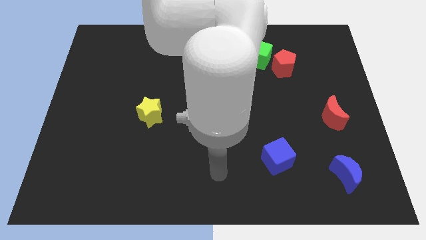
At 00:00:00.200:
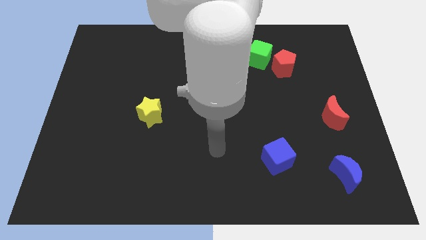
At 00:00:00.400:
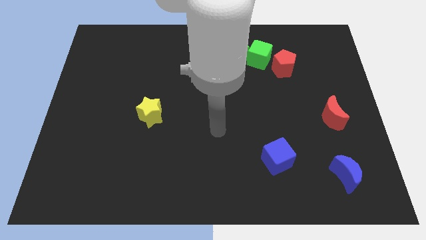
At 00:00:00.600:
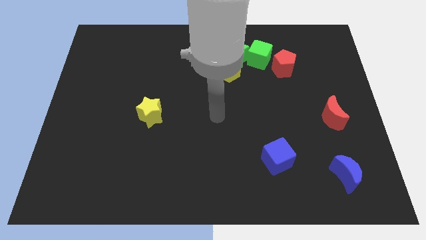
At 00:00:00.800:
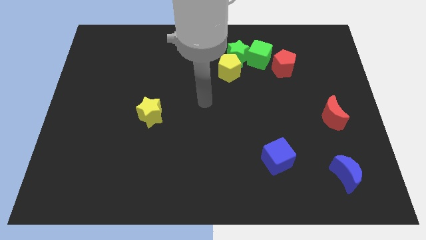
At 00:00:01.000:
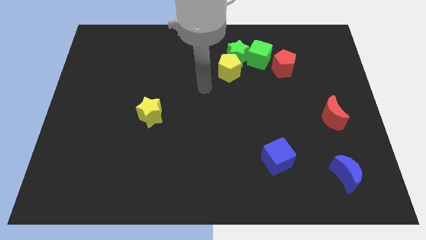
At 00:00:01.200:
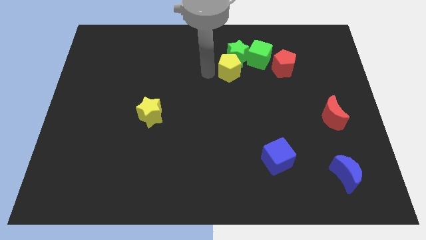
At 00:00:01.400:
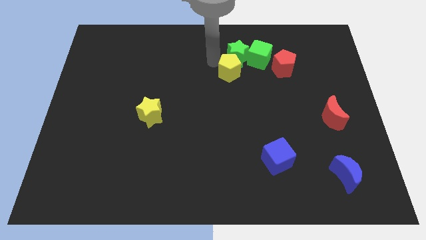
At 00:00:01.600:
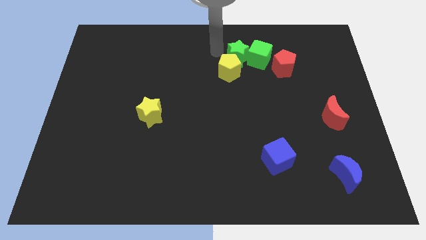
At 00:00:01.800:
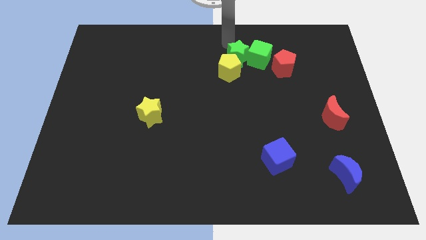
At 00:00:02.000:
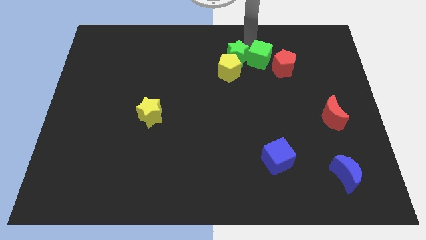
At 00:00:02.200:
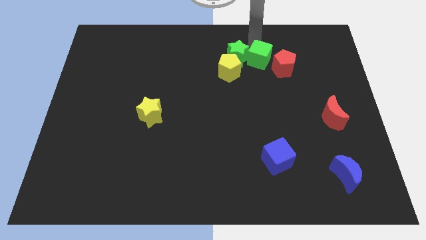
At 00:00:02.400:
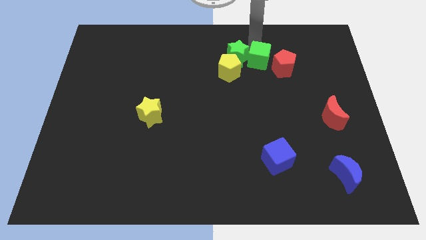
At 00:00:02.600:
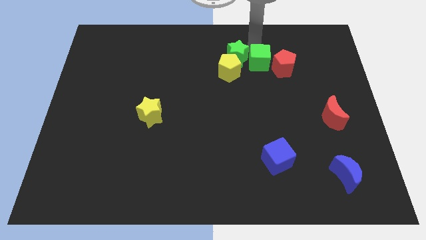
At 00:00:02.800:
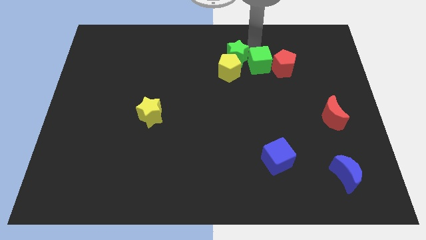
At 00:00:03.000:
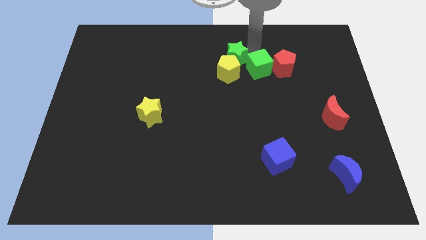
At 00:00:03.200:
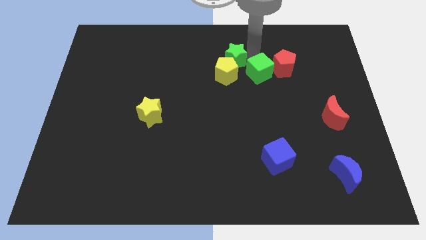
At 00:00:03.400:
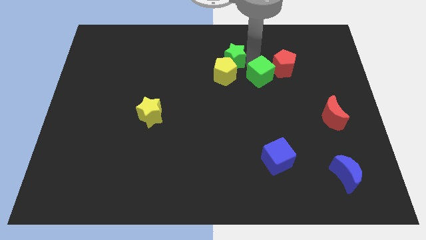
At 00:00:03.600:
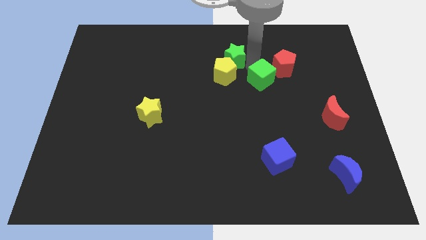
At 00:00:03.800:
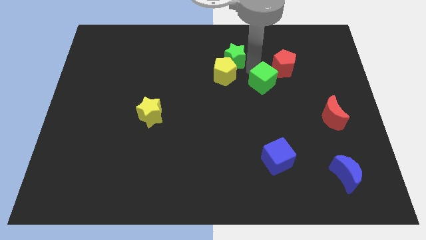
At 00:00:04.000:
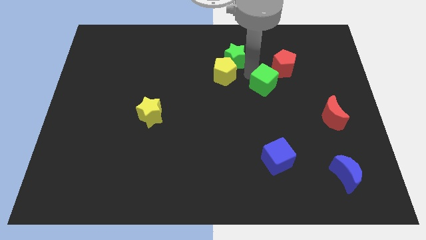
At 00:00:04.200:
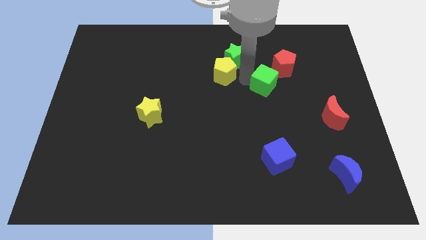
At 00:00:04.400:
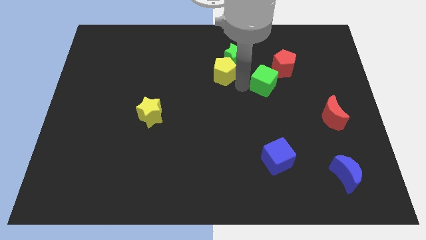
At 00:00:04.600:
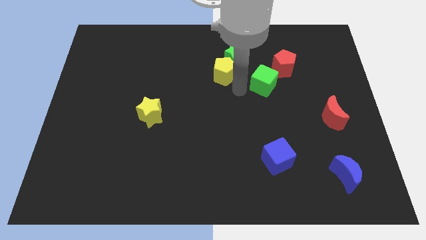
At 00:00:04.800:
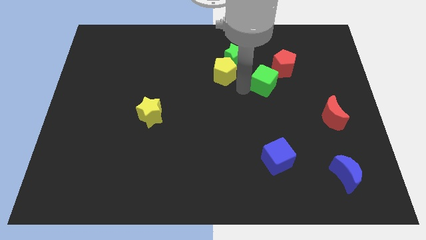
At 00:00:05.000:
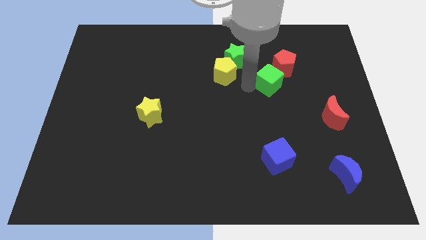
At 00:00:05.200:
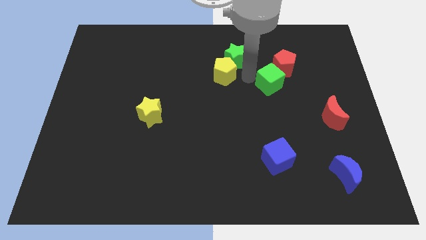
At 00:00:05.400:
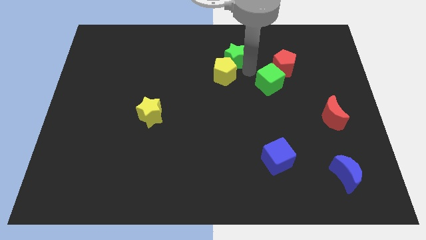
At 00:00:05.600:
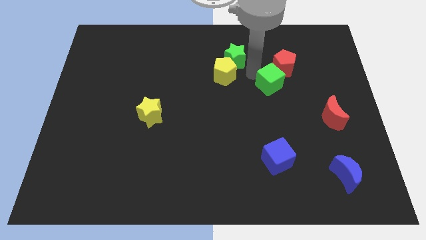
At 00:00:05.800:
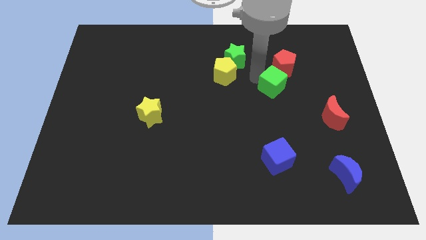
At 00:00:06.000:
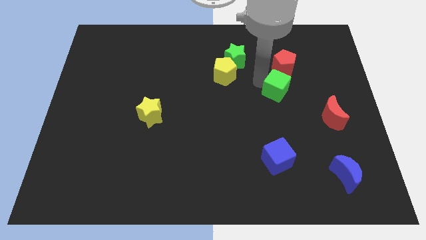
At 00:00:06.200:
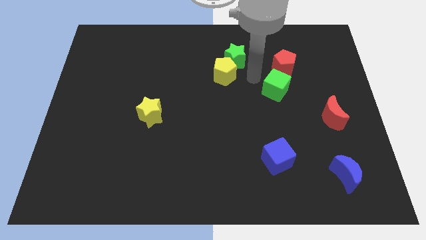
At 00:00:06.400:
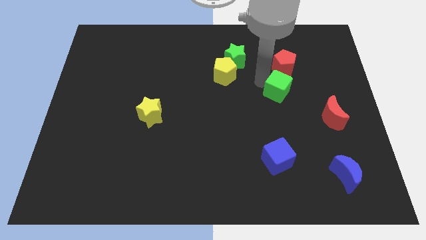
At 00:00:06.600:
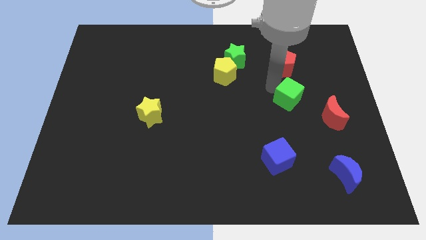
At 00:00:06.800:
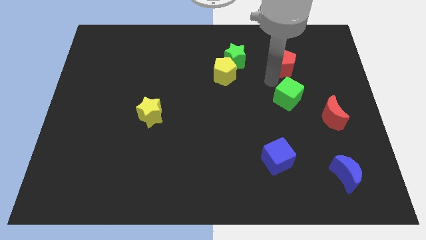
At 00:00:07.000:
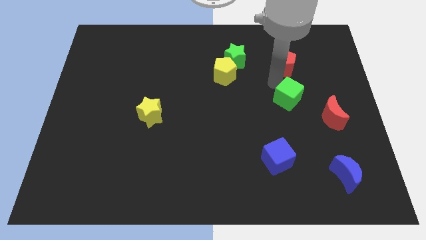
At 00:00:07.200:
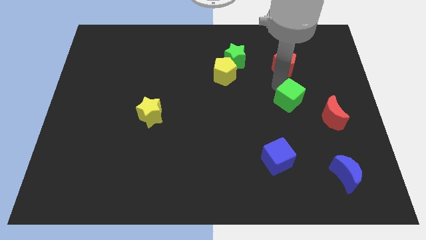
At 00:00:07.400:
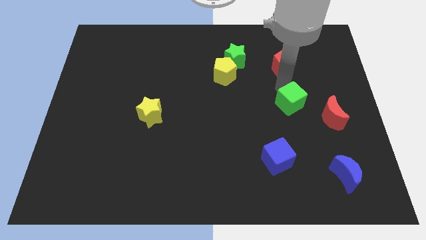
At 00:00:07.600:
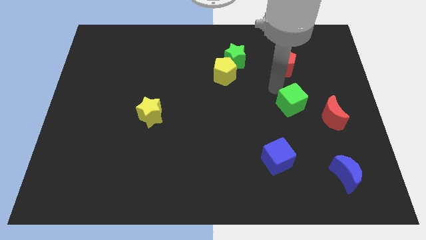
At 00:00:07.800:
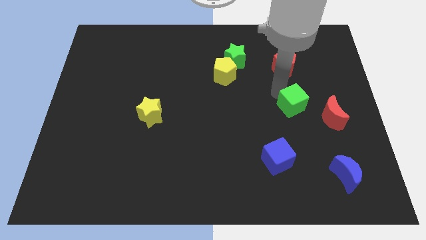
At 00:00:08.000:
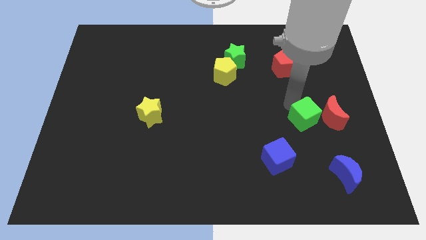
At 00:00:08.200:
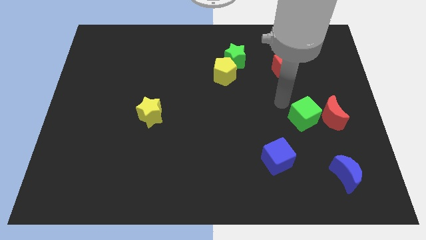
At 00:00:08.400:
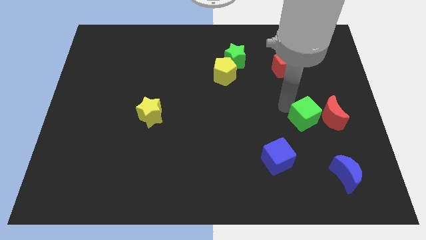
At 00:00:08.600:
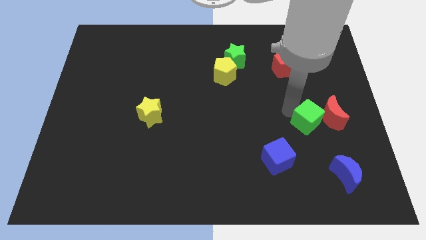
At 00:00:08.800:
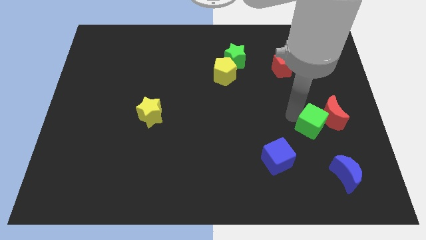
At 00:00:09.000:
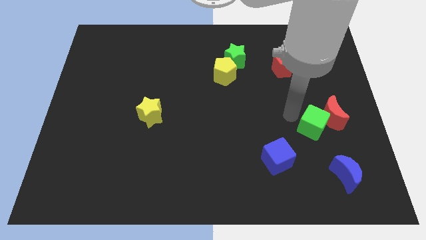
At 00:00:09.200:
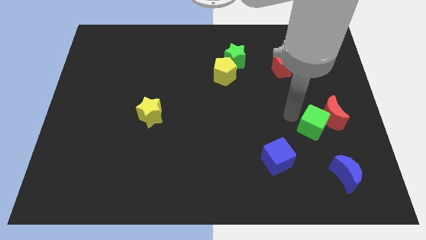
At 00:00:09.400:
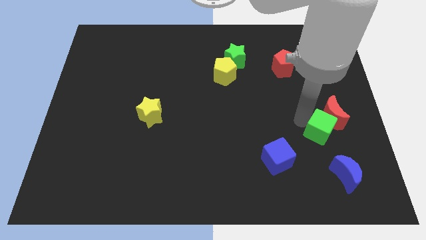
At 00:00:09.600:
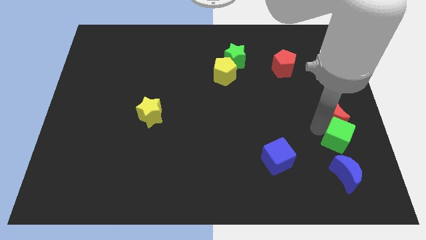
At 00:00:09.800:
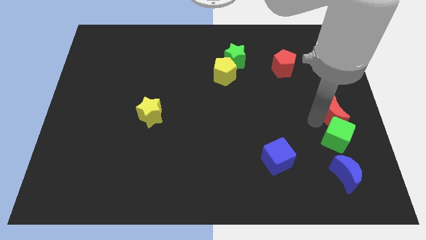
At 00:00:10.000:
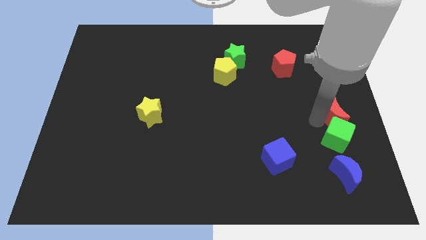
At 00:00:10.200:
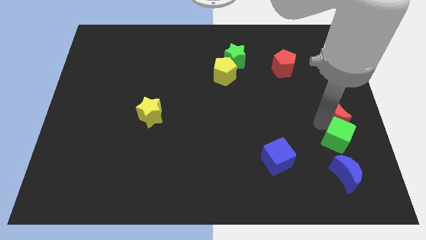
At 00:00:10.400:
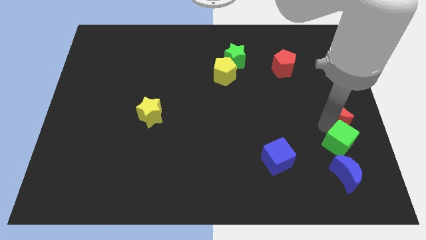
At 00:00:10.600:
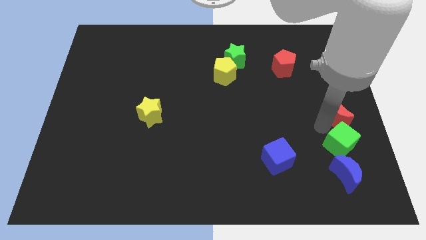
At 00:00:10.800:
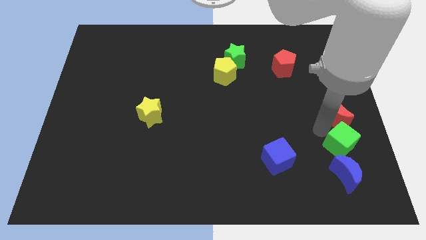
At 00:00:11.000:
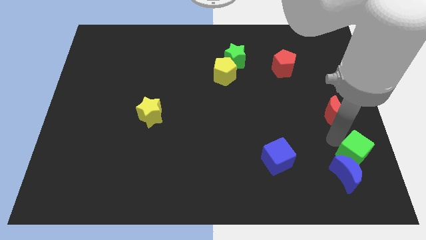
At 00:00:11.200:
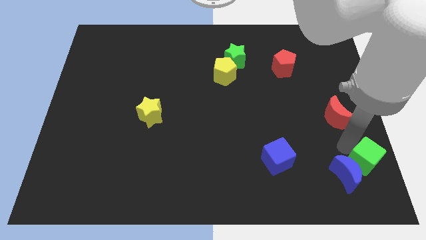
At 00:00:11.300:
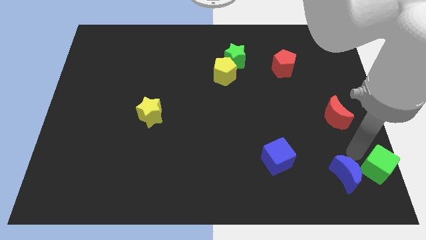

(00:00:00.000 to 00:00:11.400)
push the green cube to the bottom right corner

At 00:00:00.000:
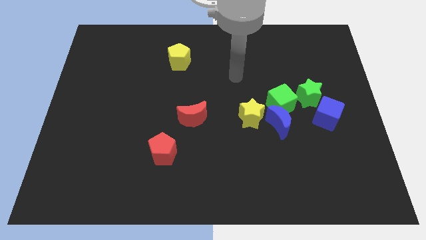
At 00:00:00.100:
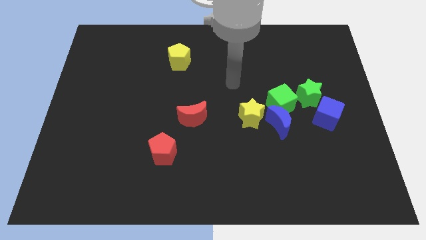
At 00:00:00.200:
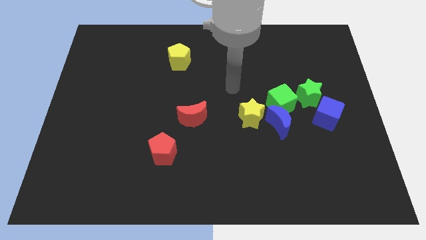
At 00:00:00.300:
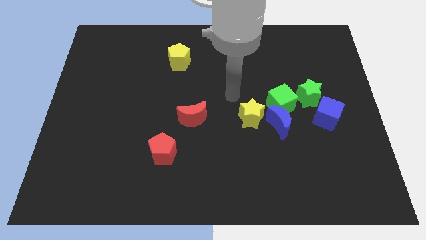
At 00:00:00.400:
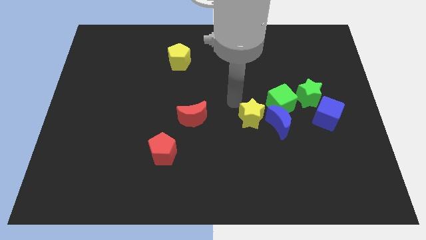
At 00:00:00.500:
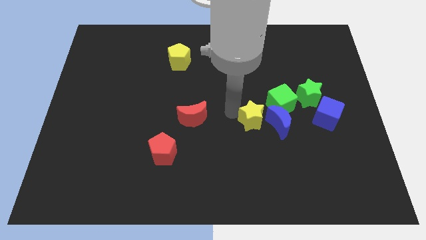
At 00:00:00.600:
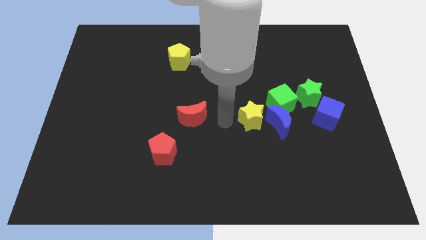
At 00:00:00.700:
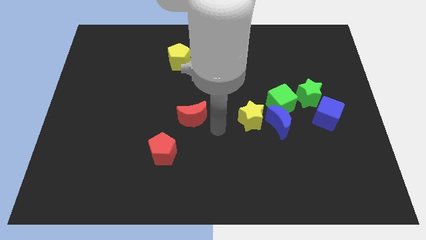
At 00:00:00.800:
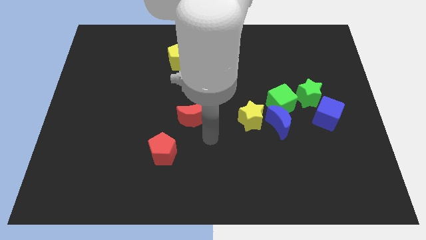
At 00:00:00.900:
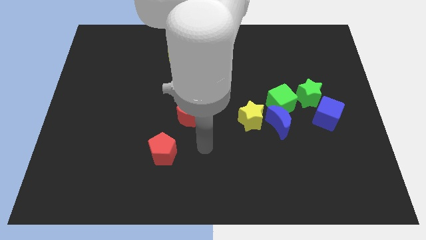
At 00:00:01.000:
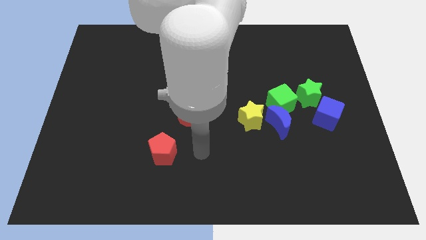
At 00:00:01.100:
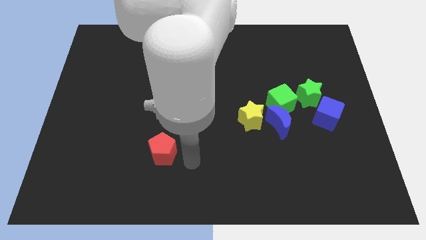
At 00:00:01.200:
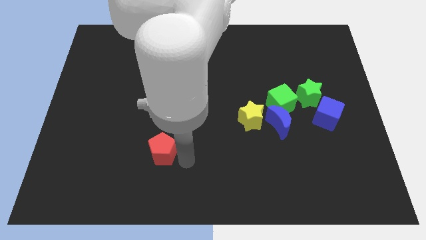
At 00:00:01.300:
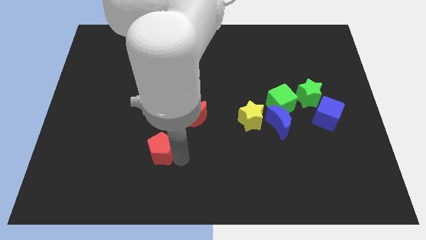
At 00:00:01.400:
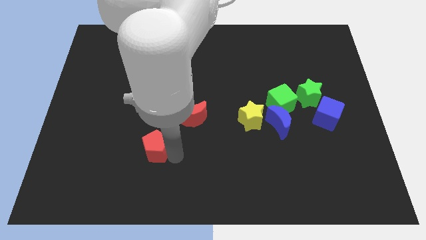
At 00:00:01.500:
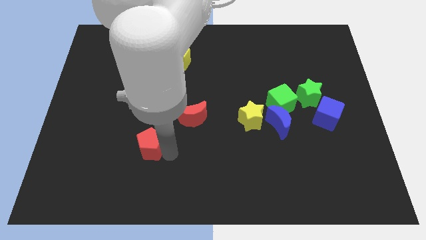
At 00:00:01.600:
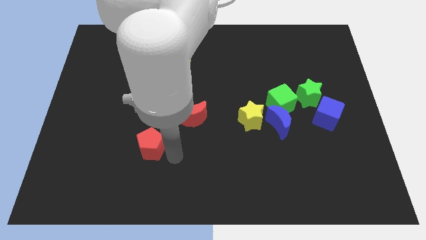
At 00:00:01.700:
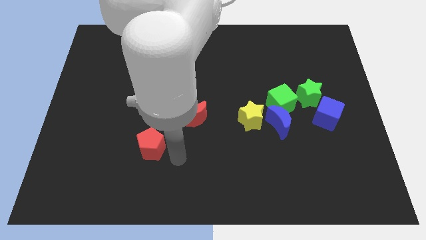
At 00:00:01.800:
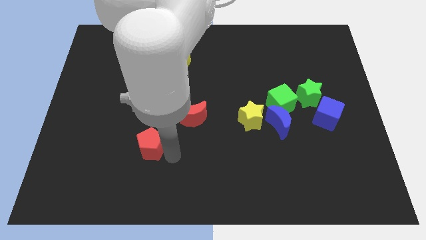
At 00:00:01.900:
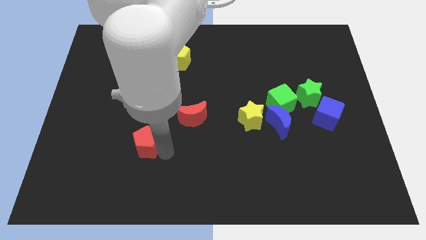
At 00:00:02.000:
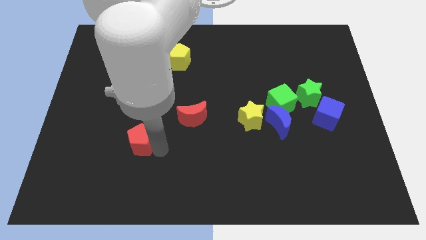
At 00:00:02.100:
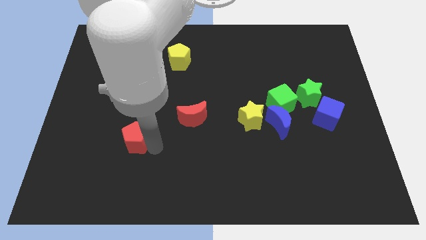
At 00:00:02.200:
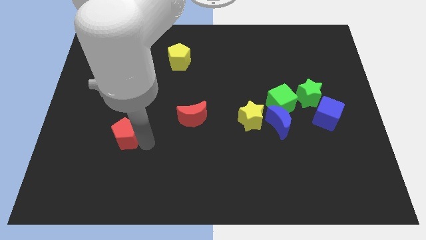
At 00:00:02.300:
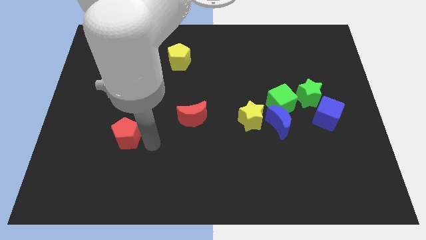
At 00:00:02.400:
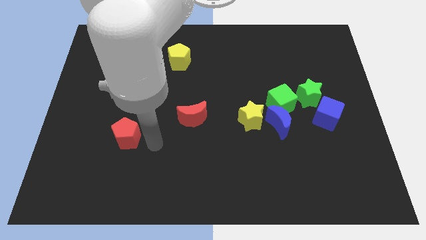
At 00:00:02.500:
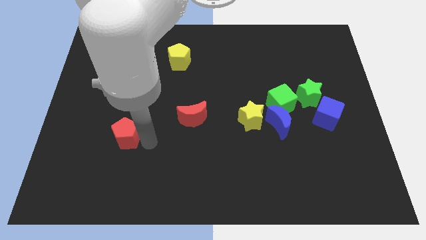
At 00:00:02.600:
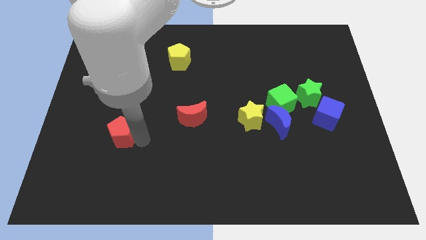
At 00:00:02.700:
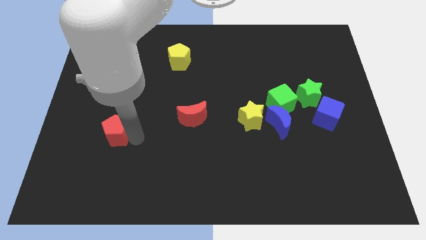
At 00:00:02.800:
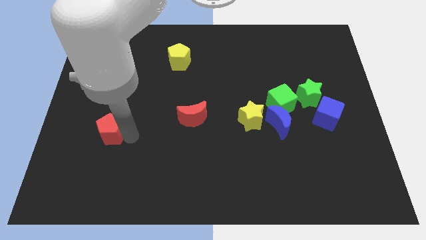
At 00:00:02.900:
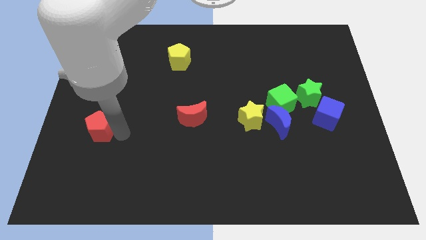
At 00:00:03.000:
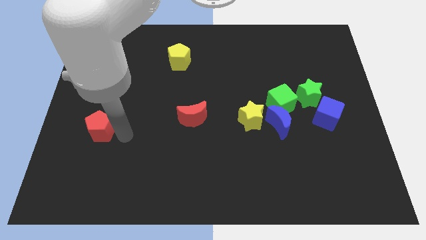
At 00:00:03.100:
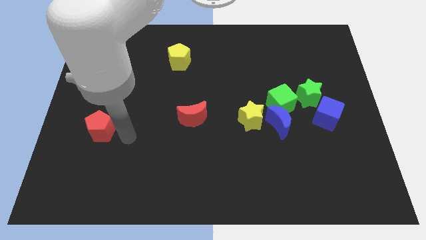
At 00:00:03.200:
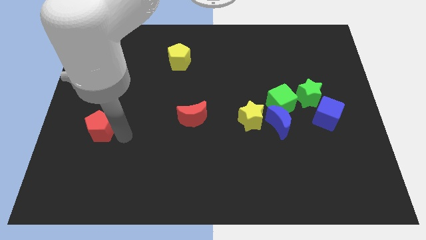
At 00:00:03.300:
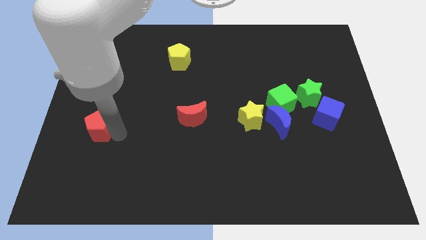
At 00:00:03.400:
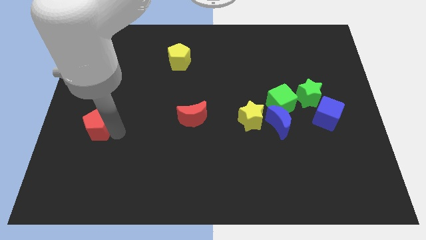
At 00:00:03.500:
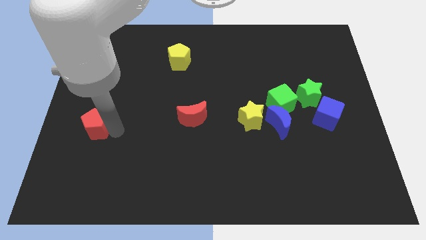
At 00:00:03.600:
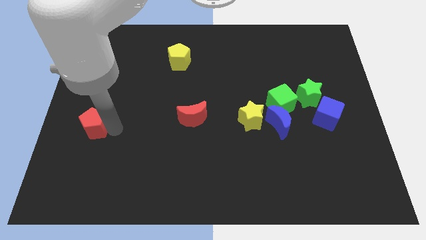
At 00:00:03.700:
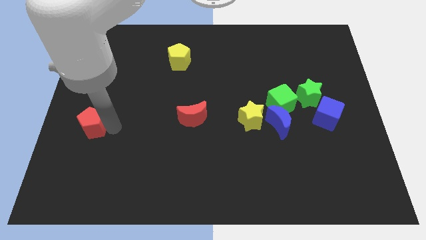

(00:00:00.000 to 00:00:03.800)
slide the red pentagon to the left side of the board
